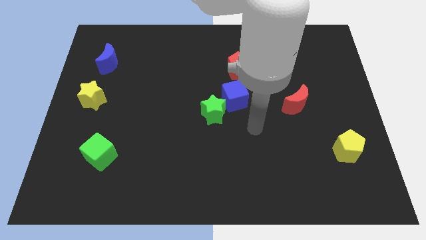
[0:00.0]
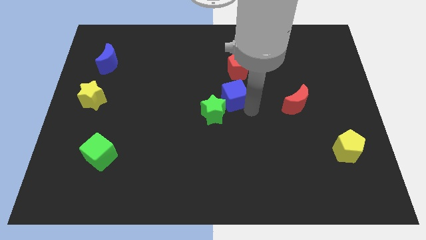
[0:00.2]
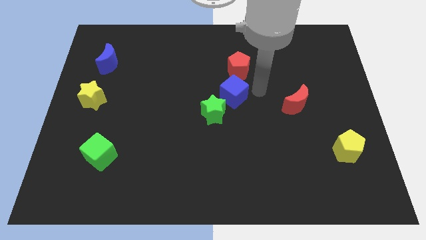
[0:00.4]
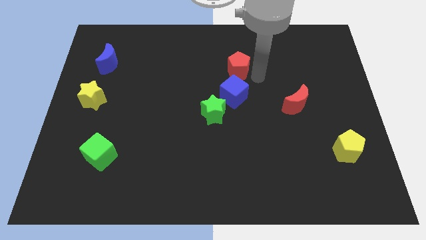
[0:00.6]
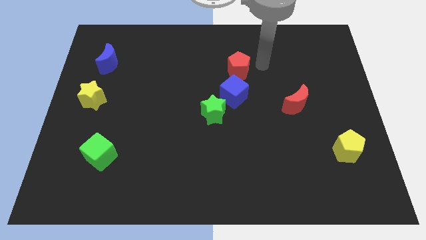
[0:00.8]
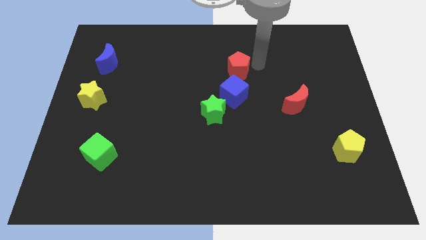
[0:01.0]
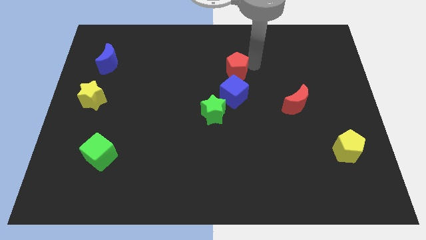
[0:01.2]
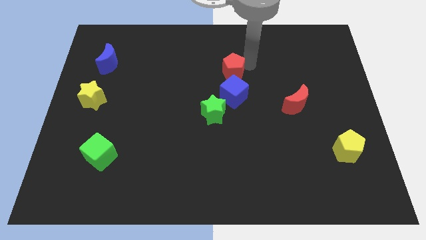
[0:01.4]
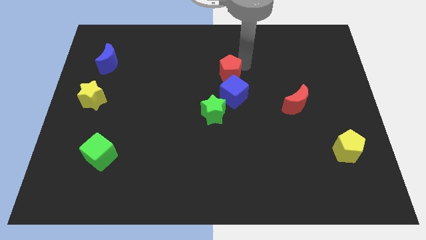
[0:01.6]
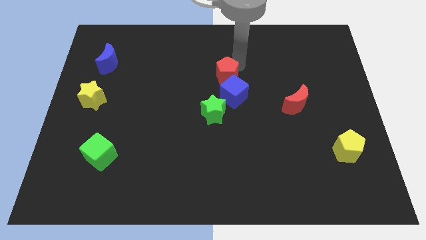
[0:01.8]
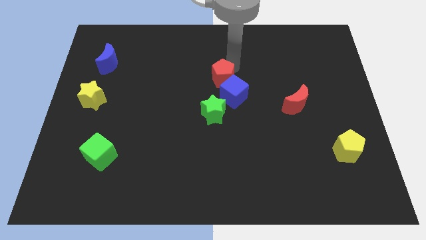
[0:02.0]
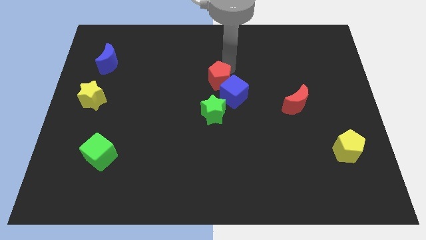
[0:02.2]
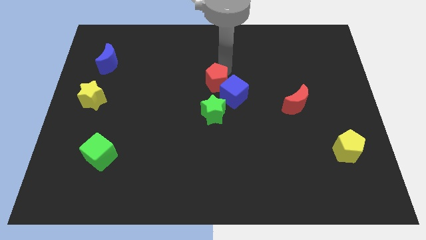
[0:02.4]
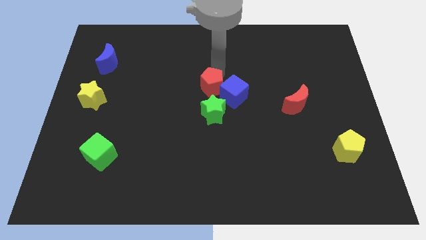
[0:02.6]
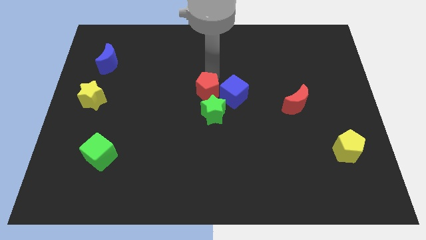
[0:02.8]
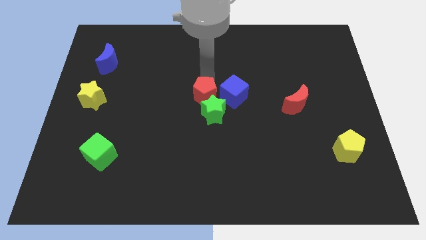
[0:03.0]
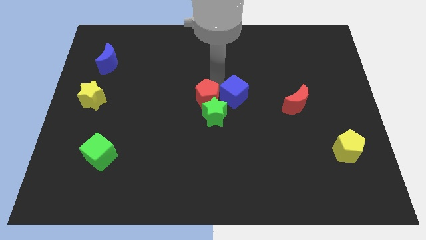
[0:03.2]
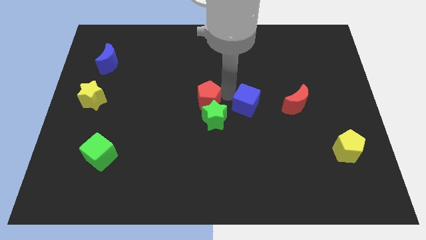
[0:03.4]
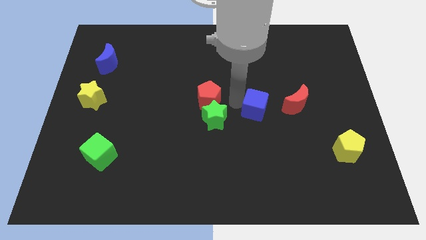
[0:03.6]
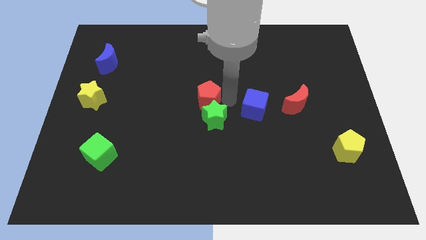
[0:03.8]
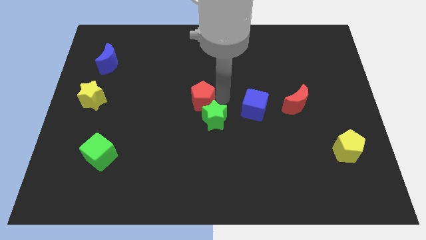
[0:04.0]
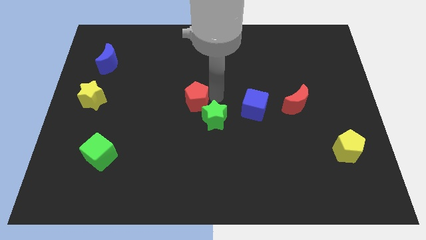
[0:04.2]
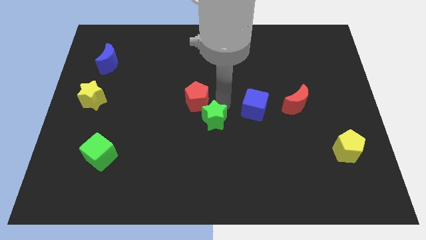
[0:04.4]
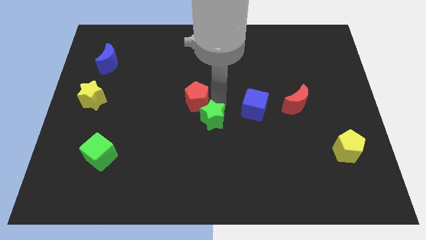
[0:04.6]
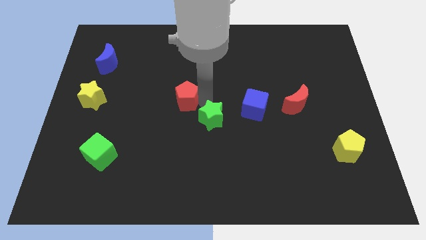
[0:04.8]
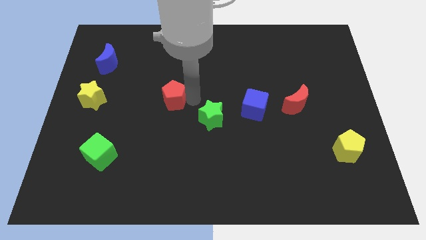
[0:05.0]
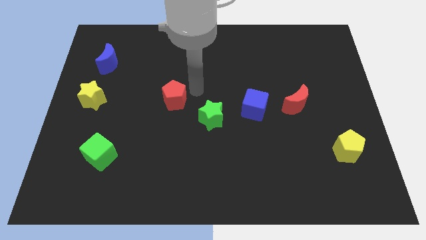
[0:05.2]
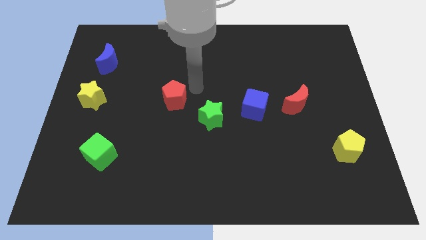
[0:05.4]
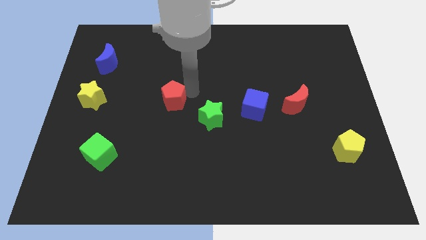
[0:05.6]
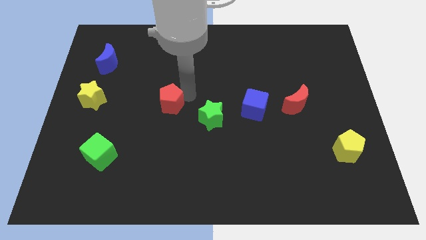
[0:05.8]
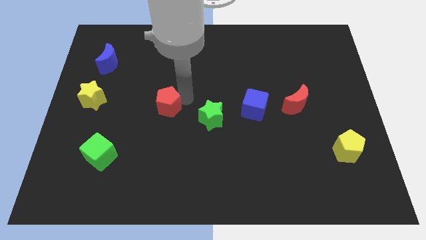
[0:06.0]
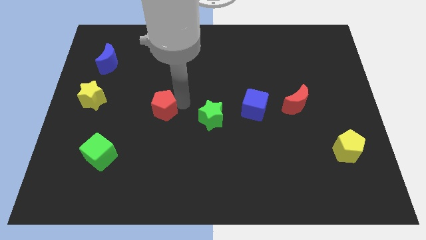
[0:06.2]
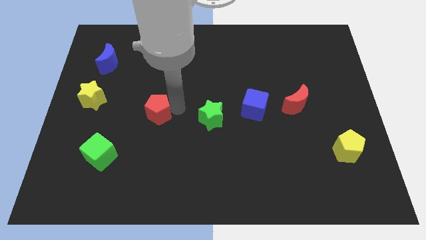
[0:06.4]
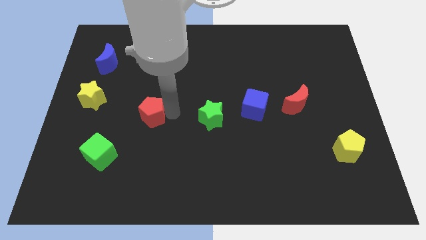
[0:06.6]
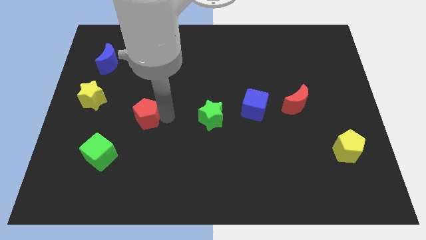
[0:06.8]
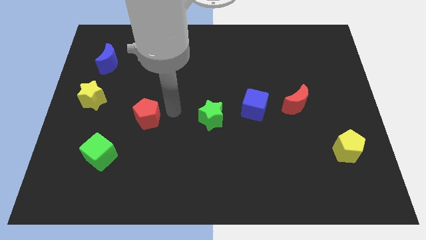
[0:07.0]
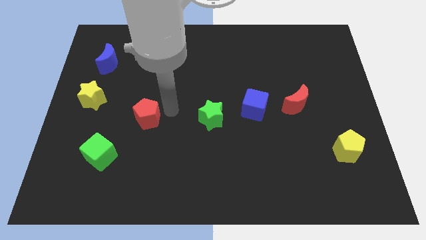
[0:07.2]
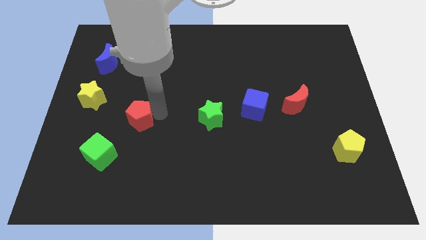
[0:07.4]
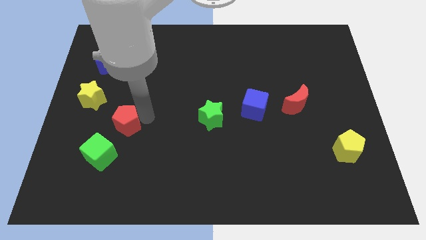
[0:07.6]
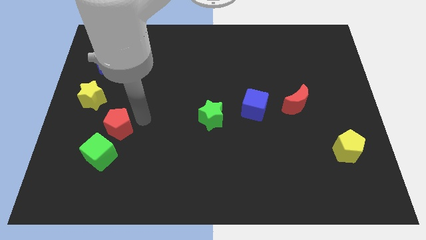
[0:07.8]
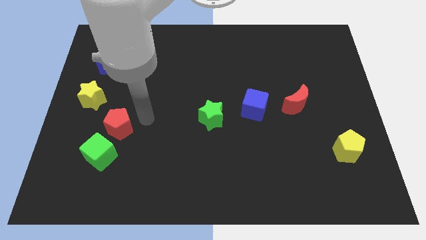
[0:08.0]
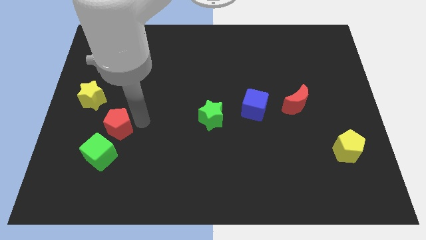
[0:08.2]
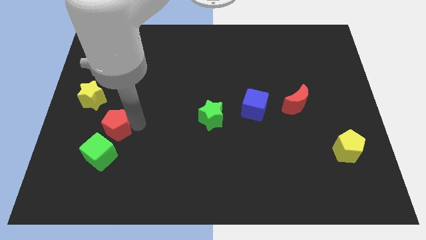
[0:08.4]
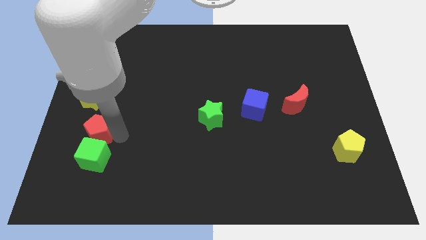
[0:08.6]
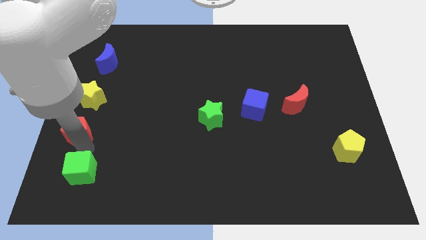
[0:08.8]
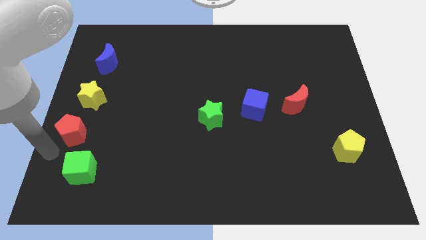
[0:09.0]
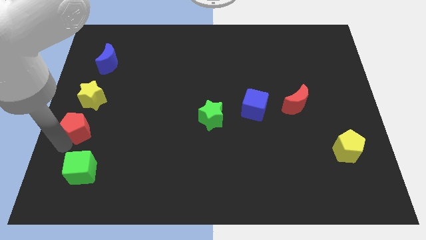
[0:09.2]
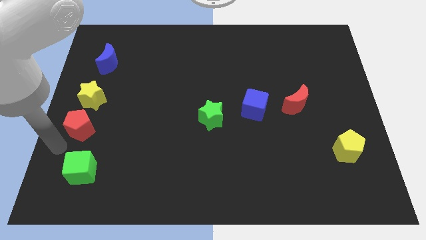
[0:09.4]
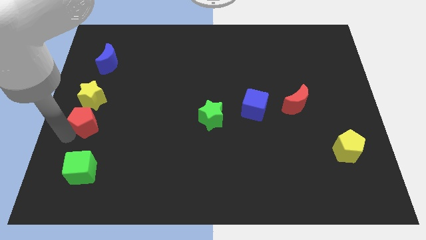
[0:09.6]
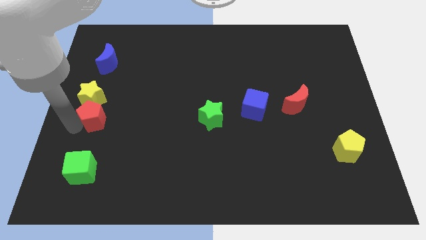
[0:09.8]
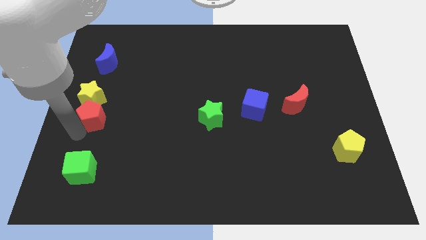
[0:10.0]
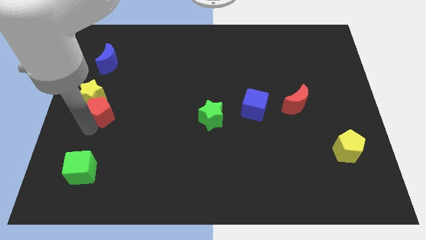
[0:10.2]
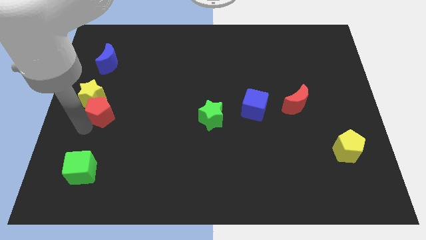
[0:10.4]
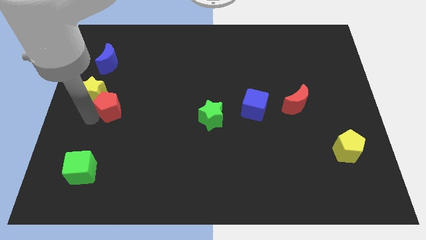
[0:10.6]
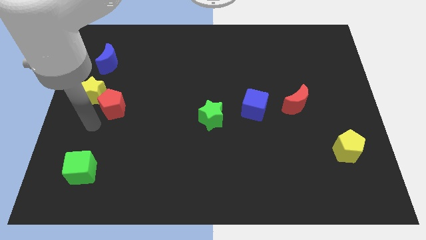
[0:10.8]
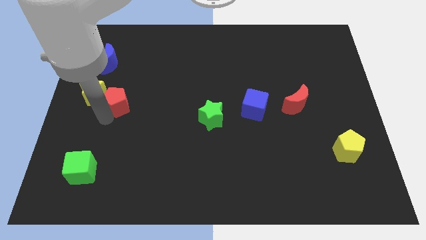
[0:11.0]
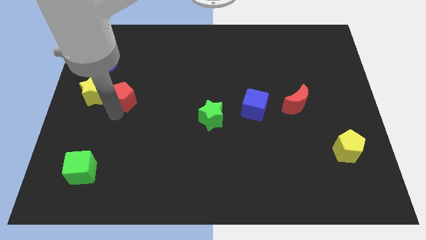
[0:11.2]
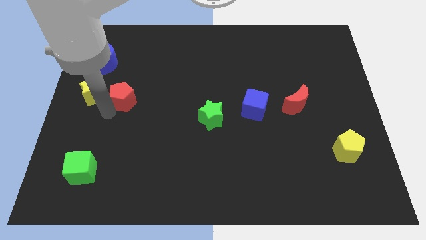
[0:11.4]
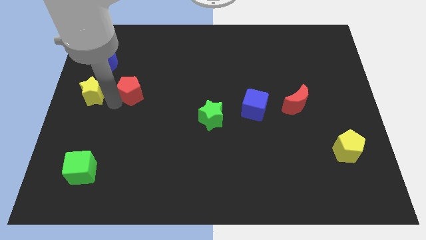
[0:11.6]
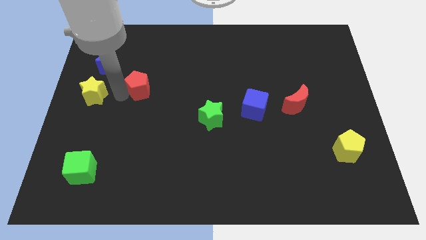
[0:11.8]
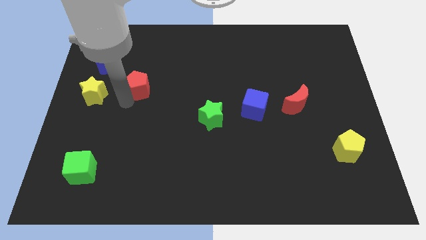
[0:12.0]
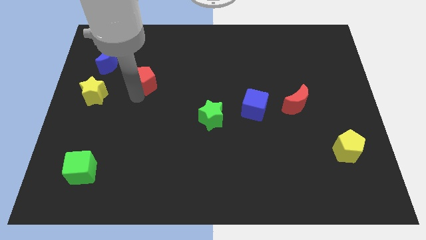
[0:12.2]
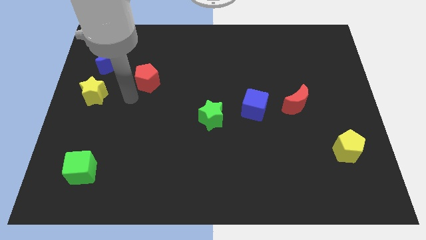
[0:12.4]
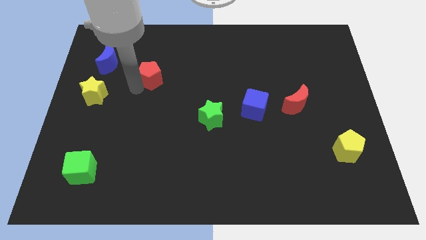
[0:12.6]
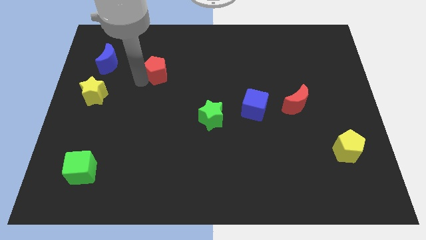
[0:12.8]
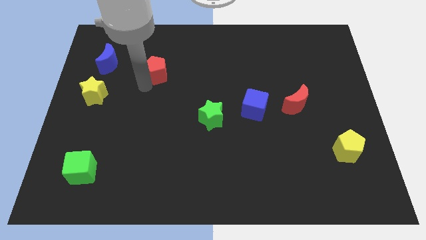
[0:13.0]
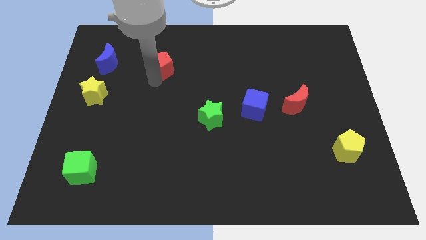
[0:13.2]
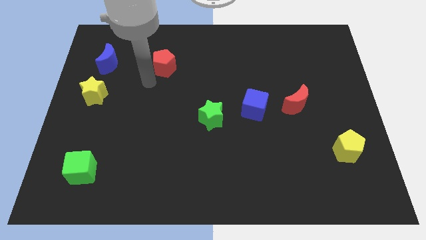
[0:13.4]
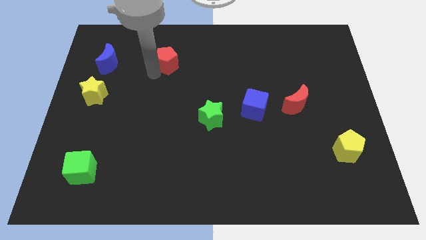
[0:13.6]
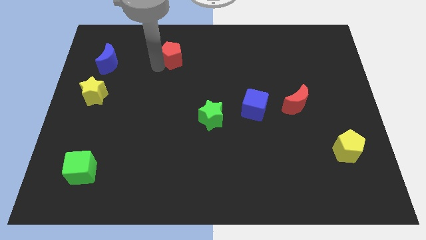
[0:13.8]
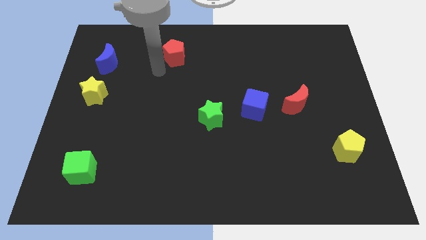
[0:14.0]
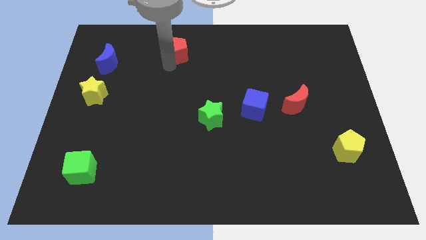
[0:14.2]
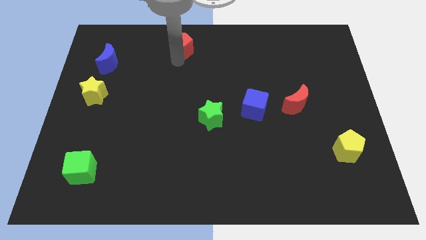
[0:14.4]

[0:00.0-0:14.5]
put the red pentagon to the top
